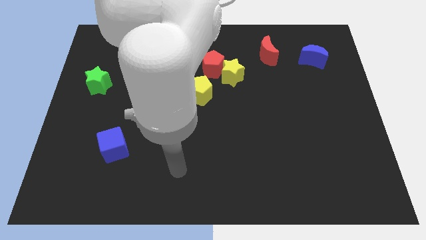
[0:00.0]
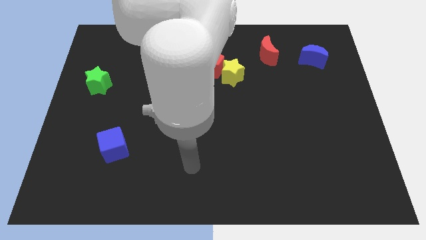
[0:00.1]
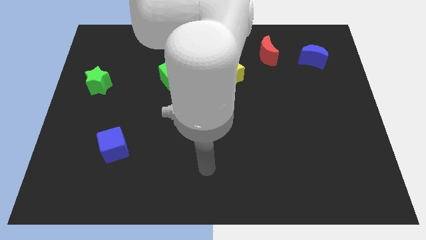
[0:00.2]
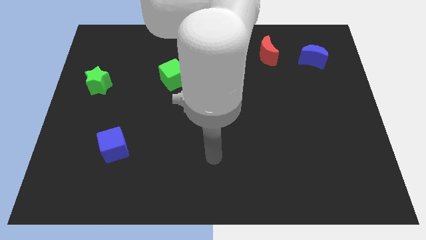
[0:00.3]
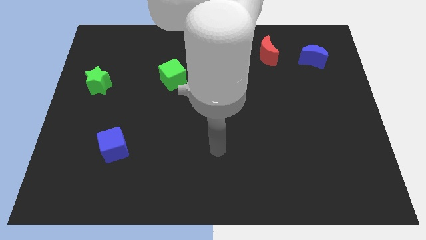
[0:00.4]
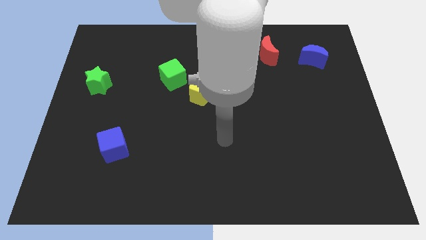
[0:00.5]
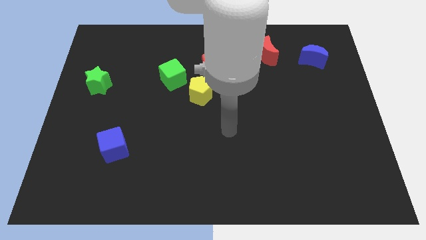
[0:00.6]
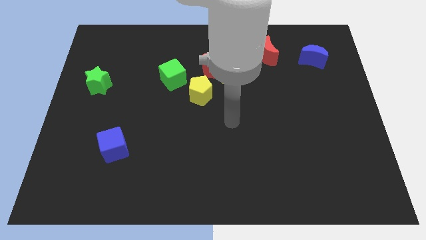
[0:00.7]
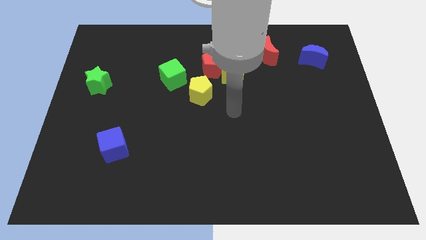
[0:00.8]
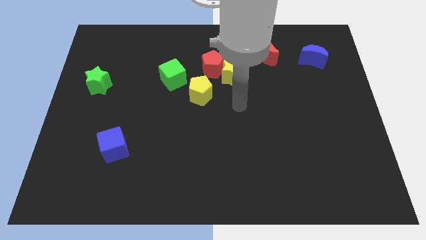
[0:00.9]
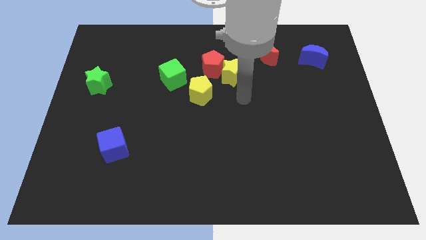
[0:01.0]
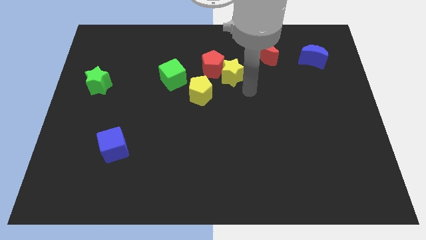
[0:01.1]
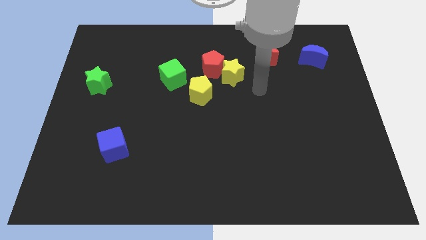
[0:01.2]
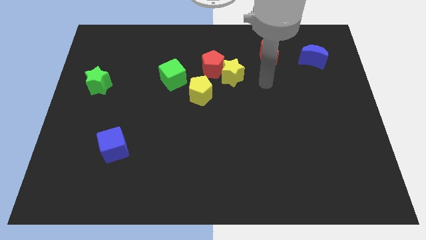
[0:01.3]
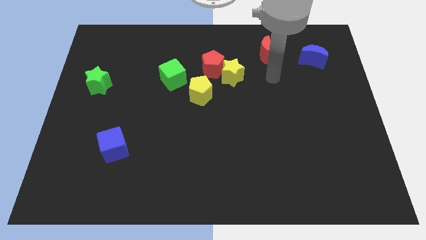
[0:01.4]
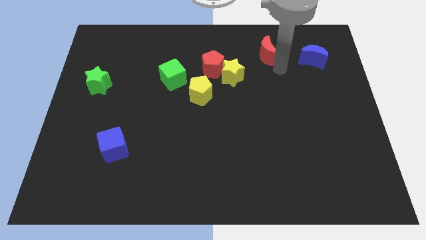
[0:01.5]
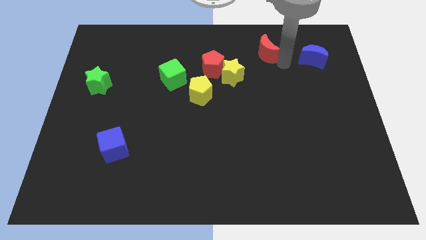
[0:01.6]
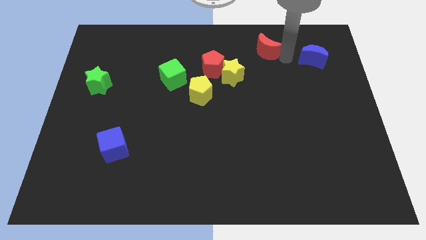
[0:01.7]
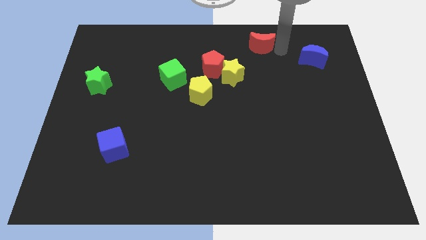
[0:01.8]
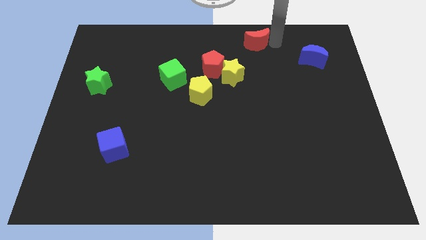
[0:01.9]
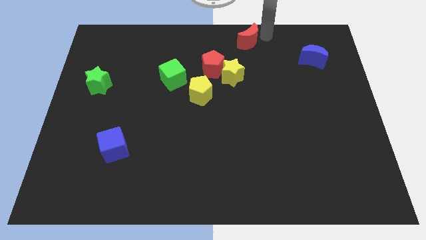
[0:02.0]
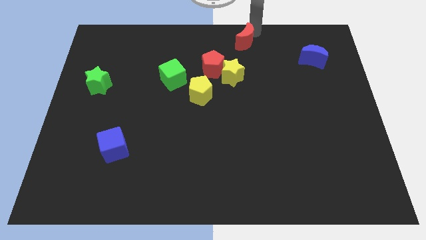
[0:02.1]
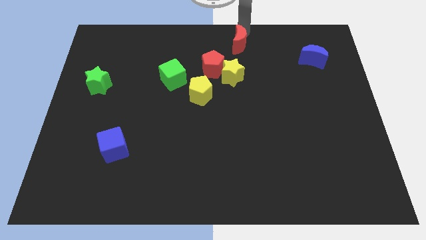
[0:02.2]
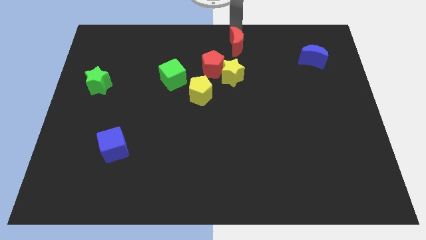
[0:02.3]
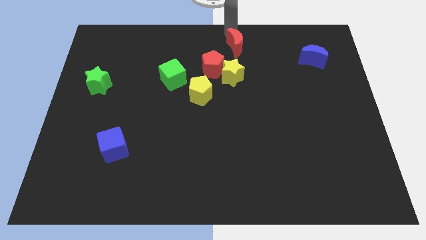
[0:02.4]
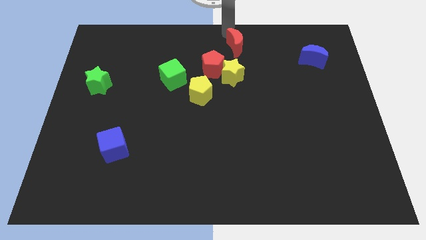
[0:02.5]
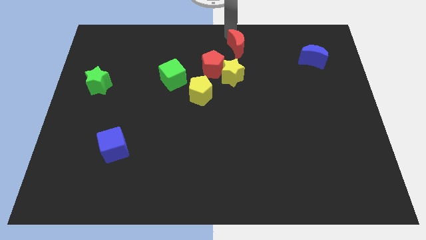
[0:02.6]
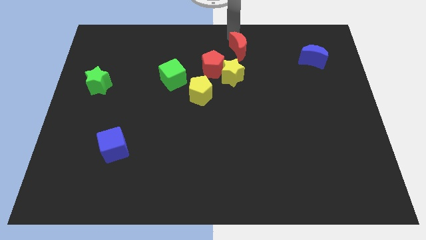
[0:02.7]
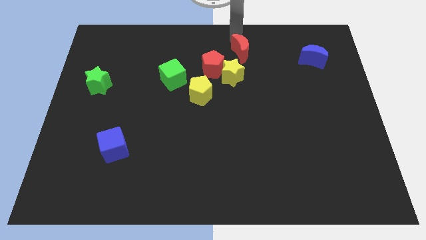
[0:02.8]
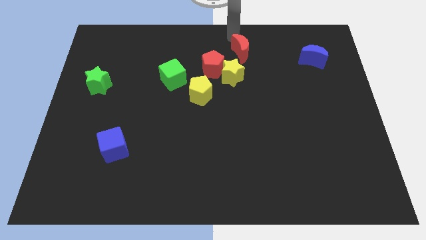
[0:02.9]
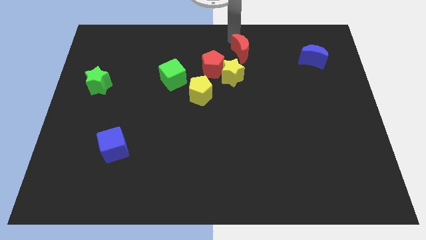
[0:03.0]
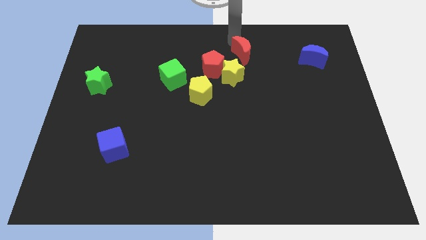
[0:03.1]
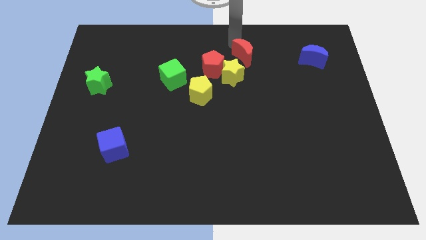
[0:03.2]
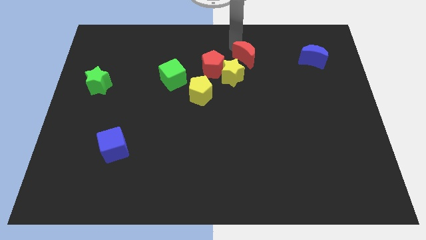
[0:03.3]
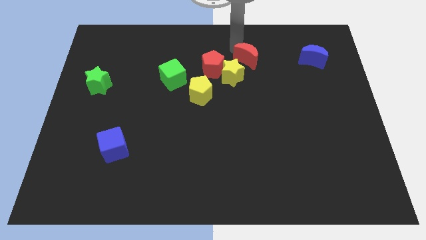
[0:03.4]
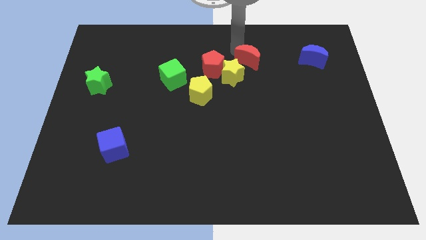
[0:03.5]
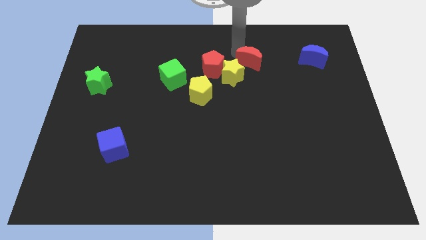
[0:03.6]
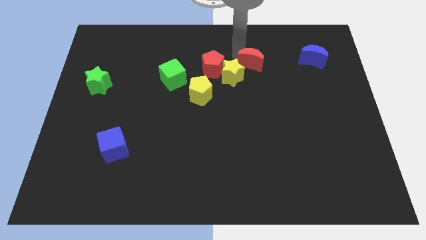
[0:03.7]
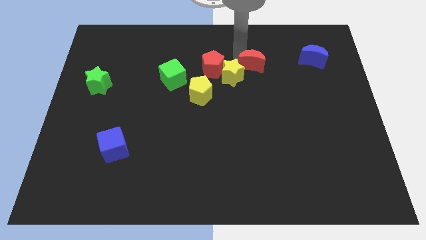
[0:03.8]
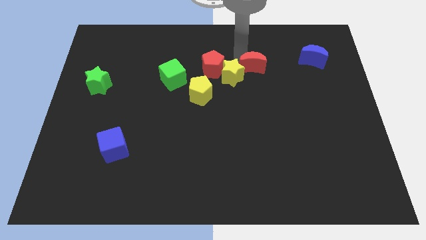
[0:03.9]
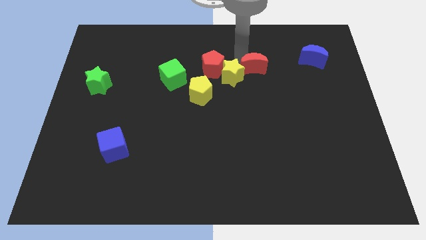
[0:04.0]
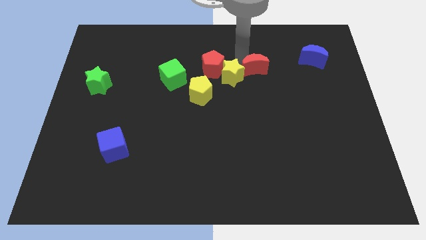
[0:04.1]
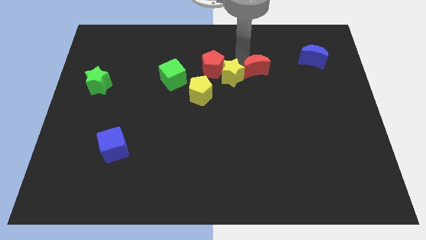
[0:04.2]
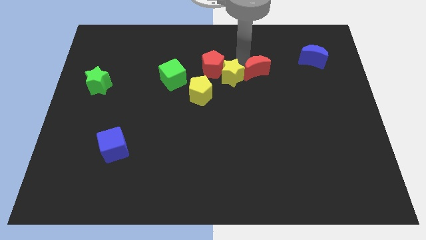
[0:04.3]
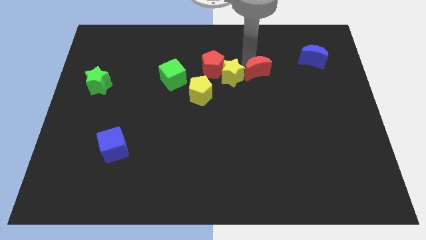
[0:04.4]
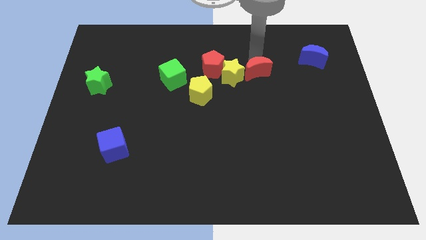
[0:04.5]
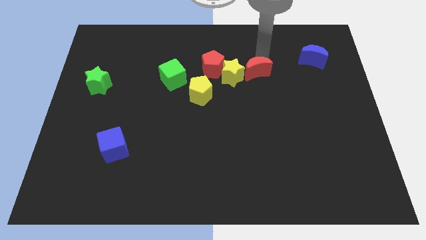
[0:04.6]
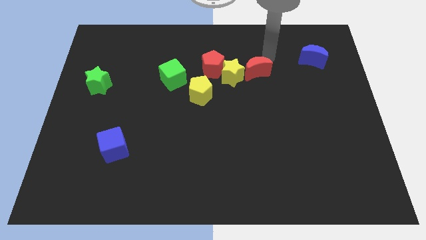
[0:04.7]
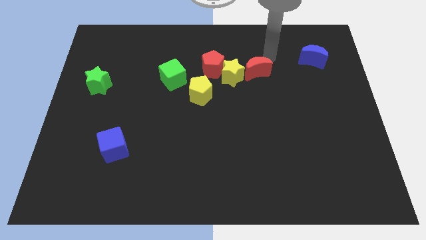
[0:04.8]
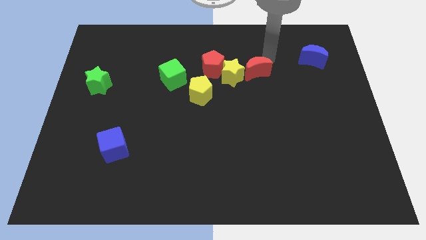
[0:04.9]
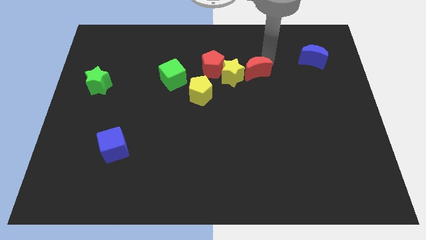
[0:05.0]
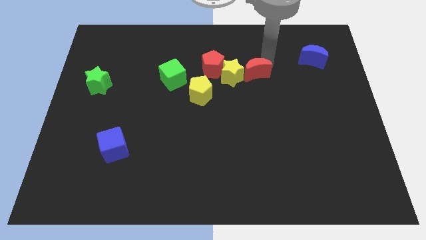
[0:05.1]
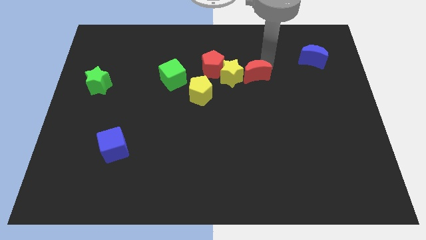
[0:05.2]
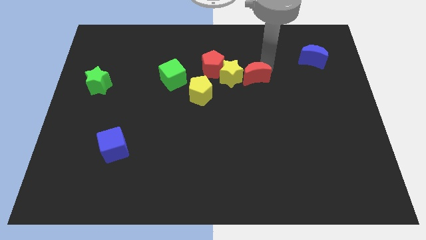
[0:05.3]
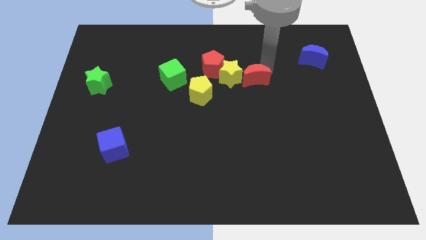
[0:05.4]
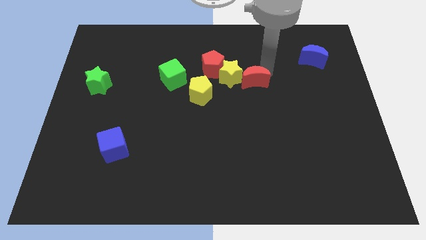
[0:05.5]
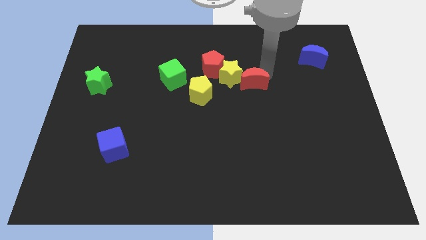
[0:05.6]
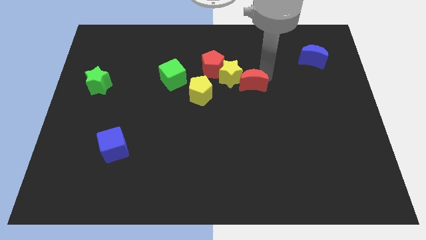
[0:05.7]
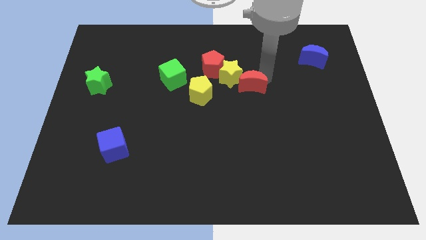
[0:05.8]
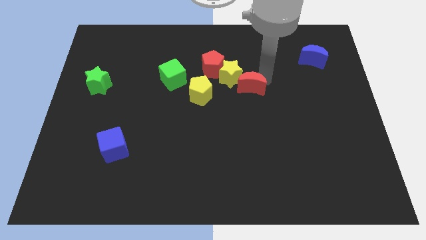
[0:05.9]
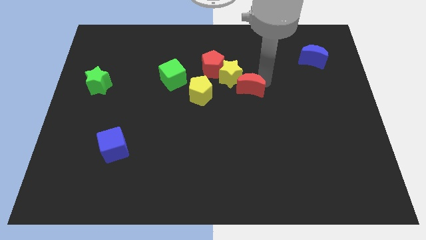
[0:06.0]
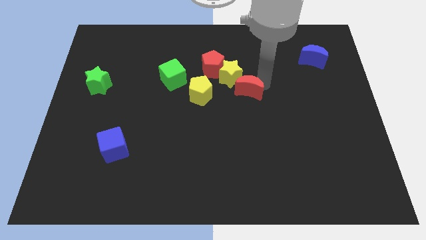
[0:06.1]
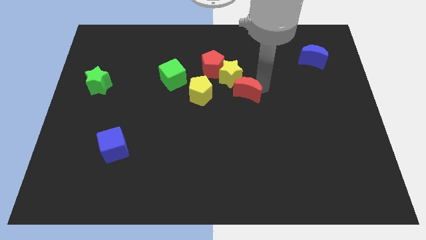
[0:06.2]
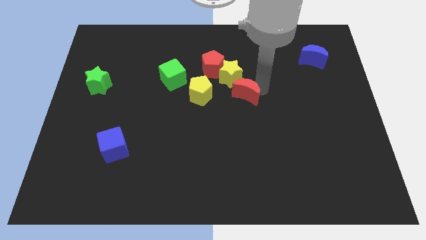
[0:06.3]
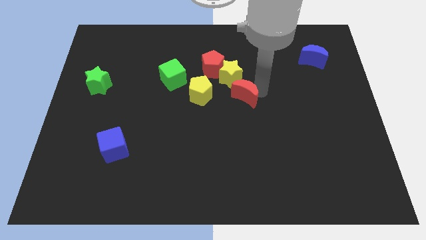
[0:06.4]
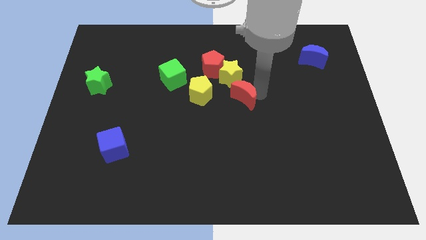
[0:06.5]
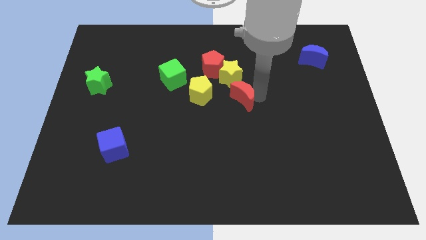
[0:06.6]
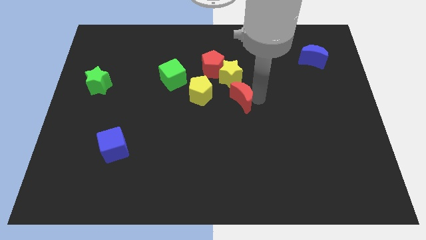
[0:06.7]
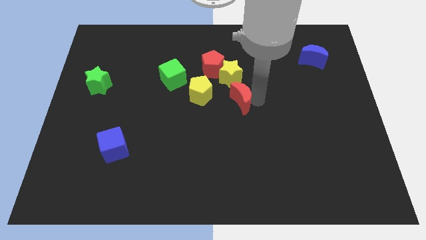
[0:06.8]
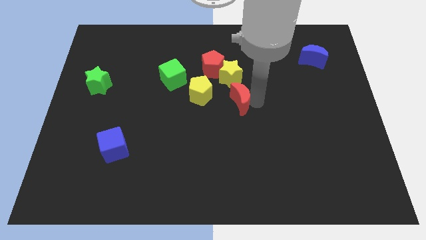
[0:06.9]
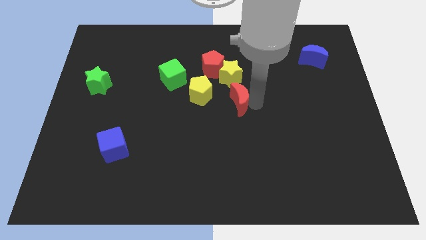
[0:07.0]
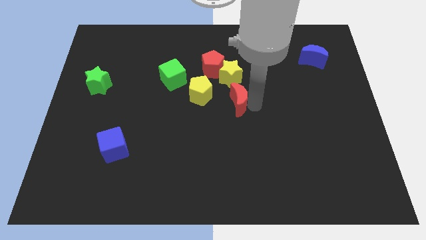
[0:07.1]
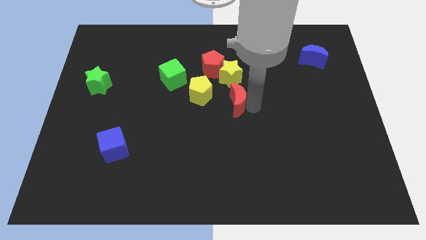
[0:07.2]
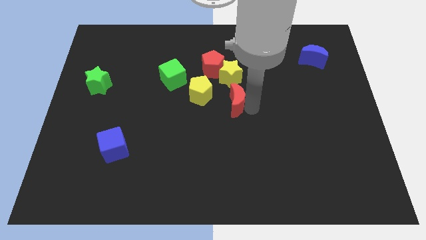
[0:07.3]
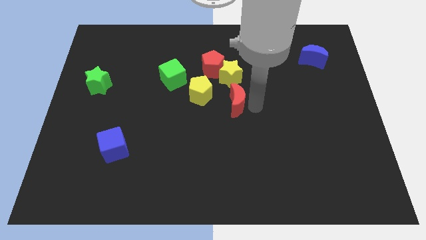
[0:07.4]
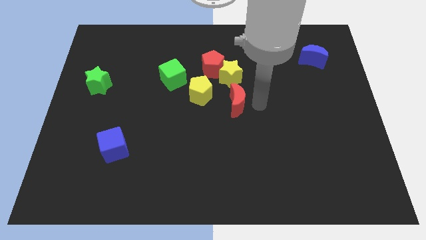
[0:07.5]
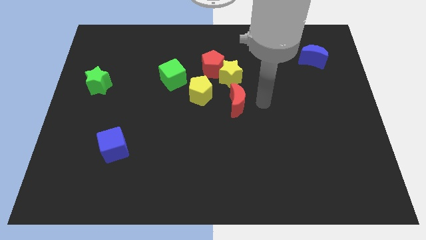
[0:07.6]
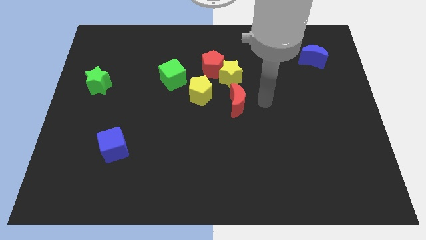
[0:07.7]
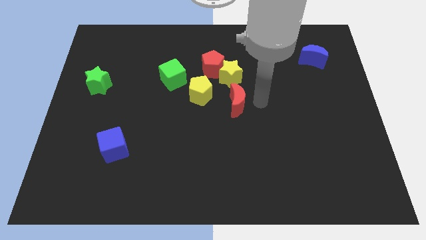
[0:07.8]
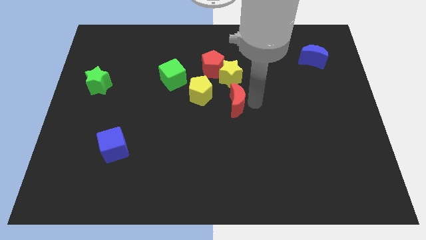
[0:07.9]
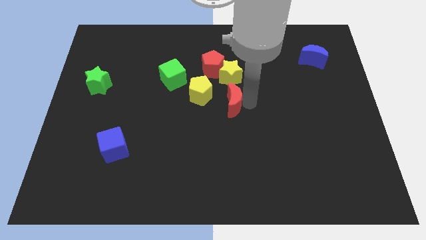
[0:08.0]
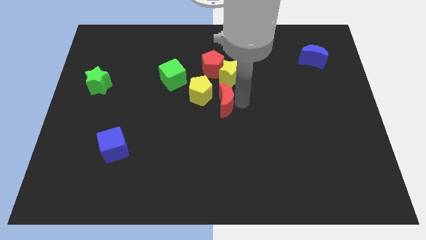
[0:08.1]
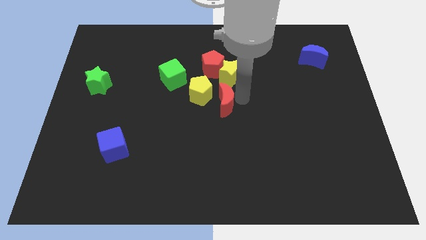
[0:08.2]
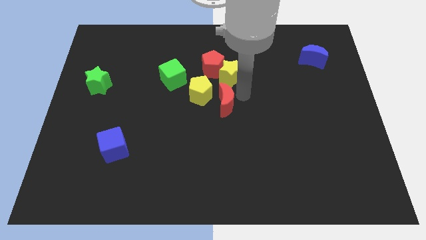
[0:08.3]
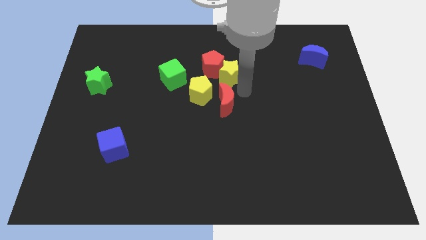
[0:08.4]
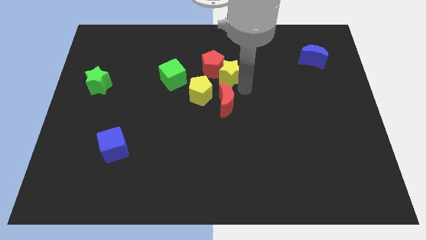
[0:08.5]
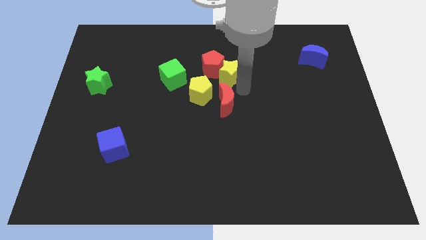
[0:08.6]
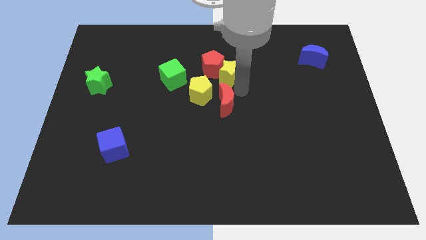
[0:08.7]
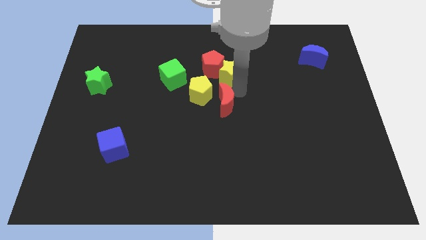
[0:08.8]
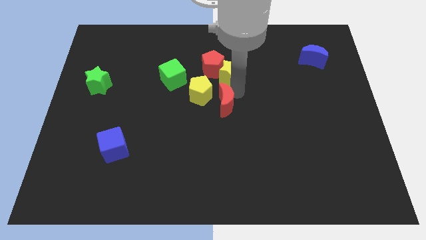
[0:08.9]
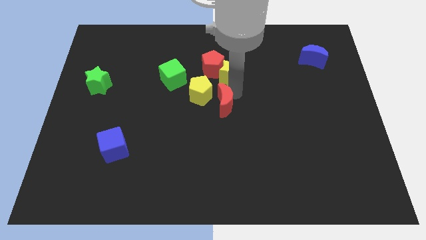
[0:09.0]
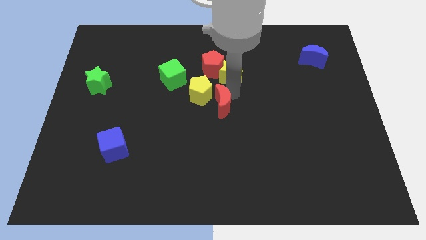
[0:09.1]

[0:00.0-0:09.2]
move the red moon diagonally downwards and left
